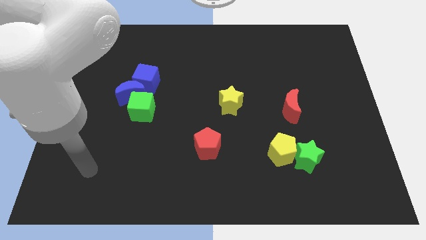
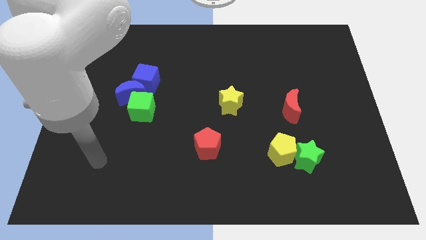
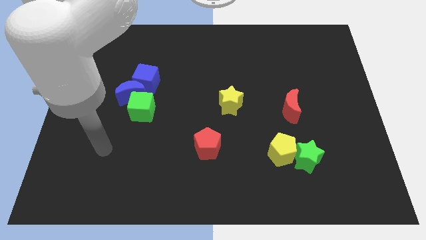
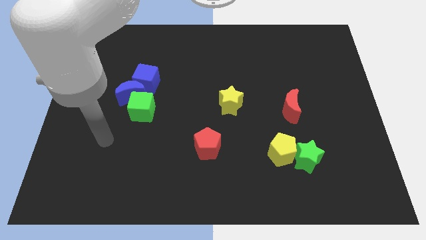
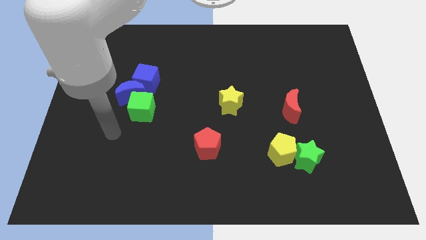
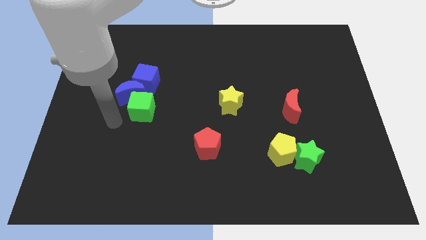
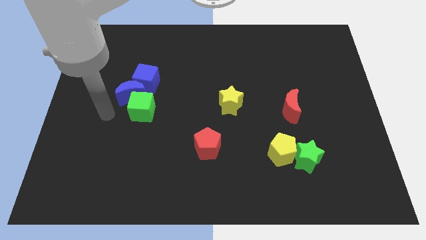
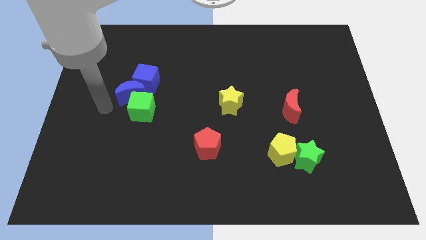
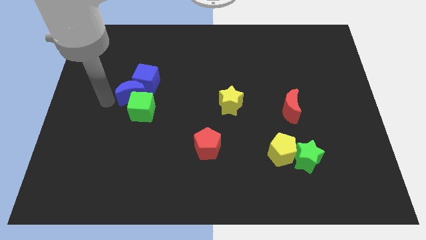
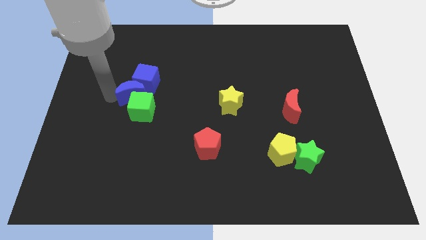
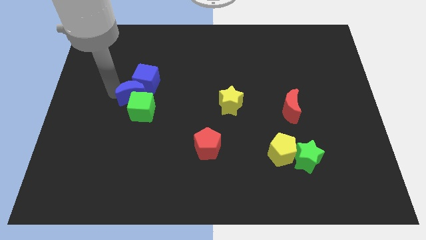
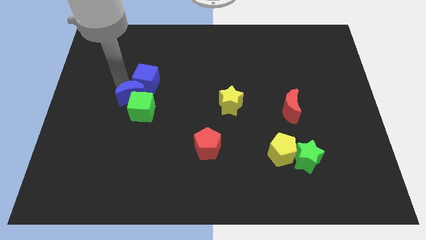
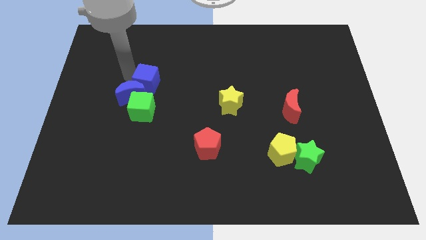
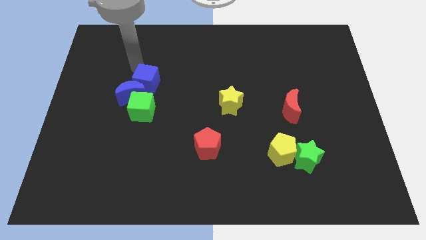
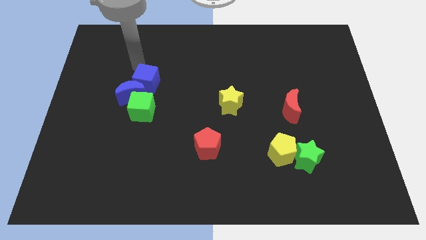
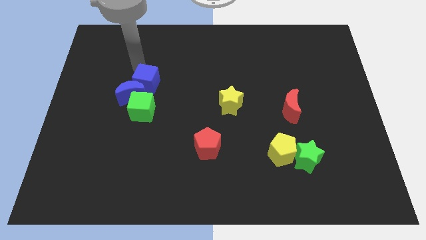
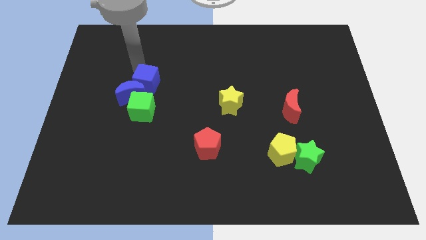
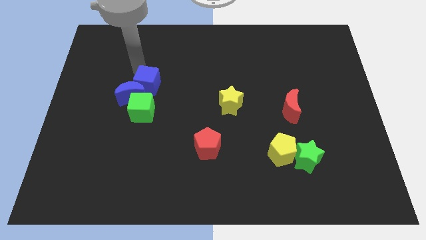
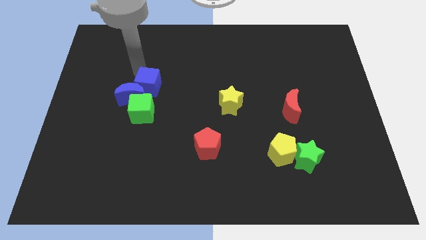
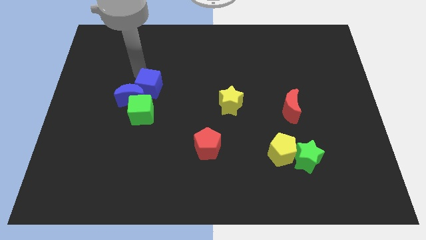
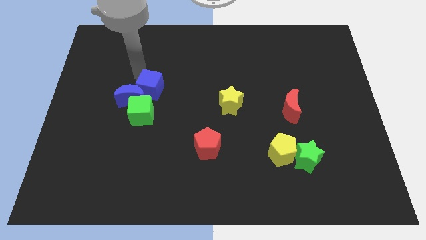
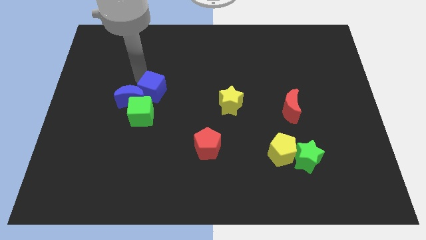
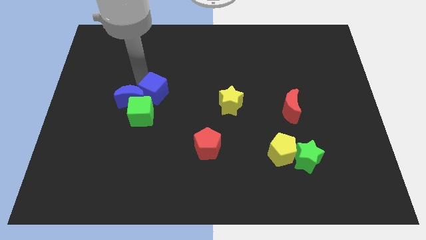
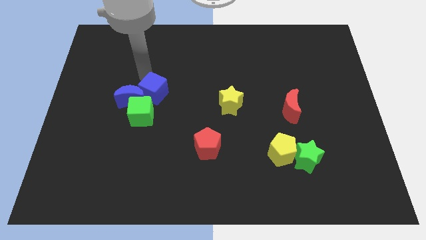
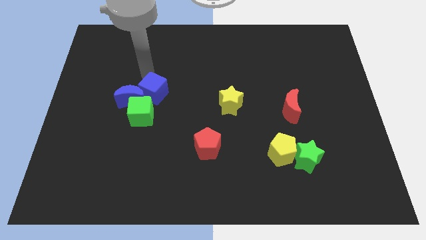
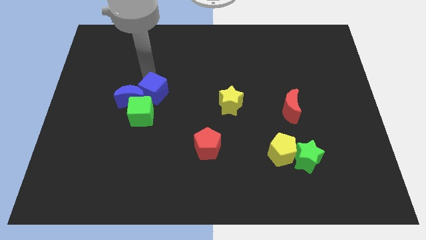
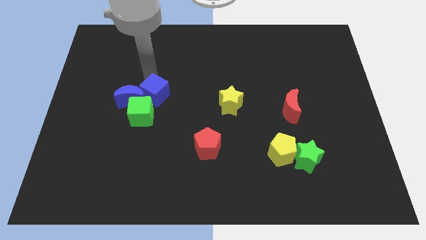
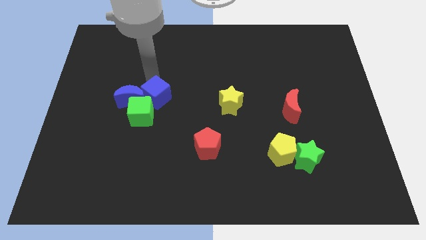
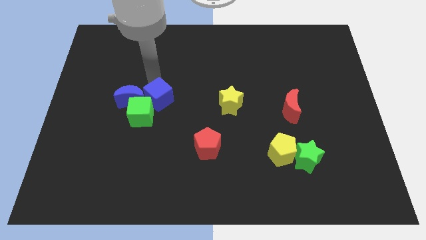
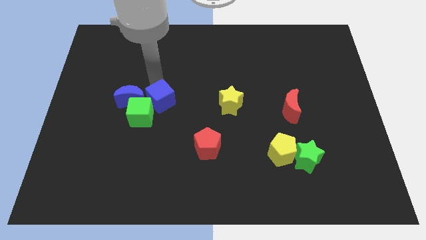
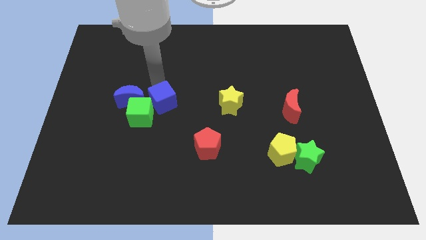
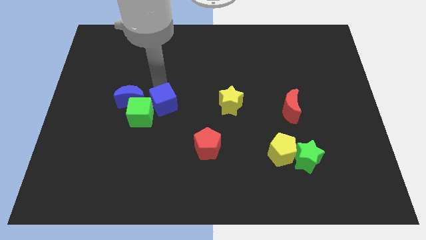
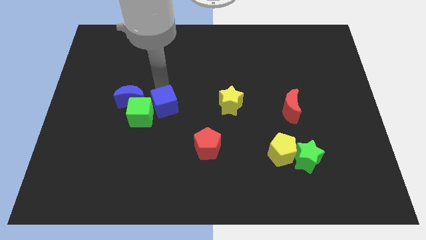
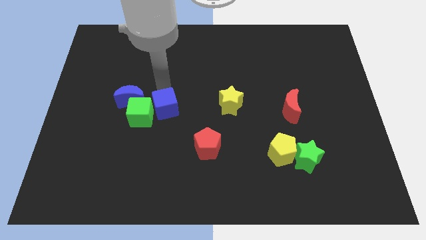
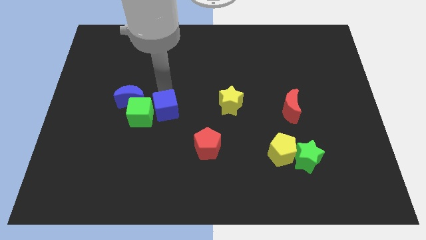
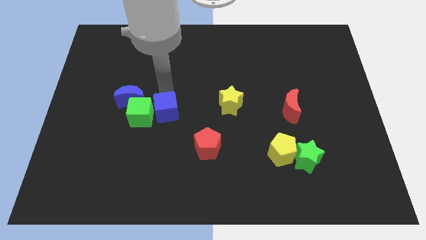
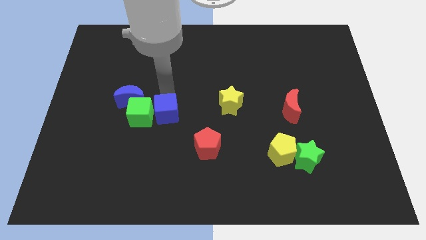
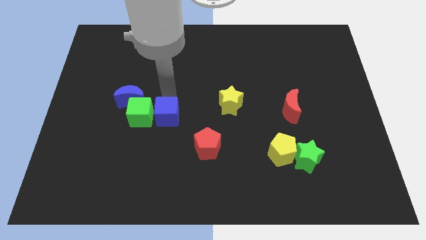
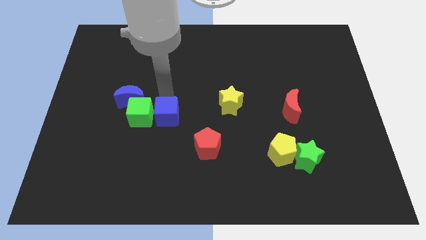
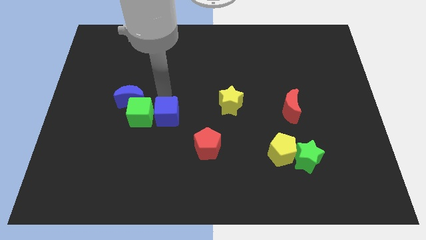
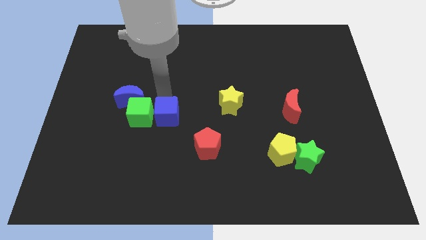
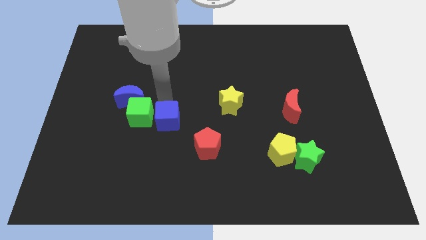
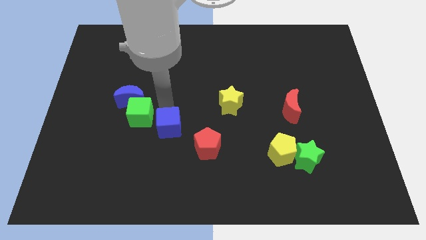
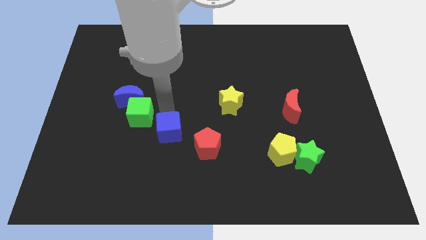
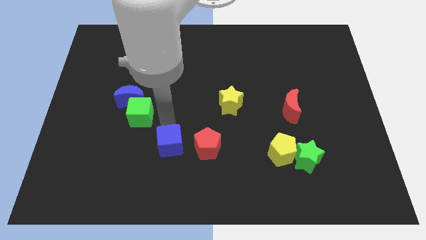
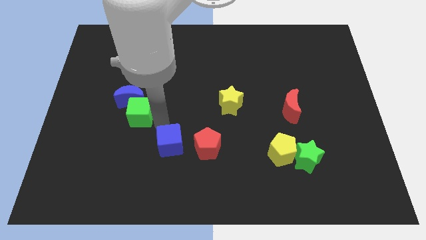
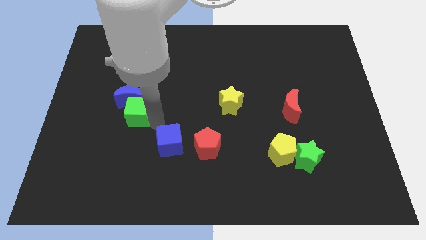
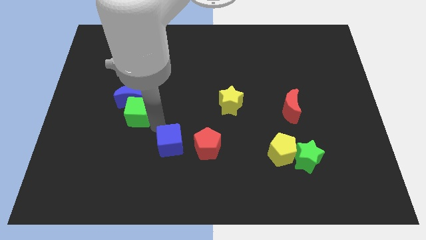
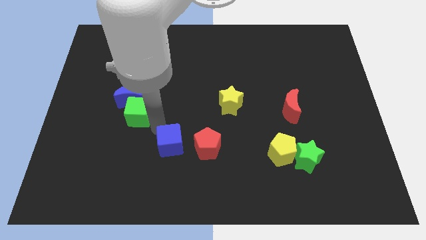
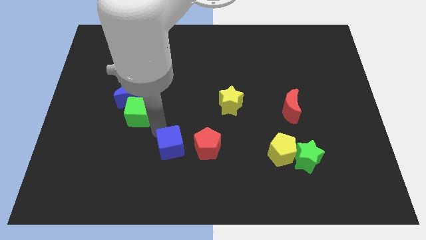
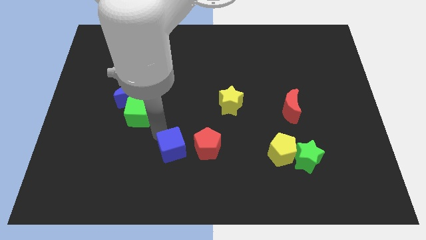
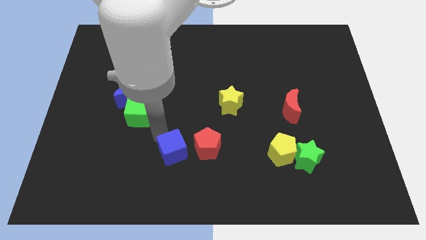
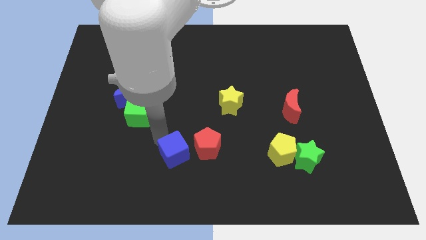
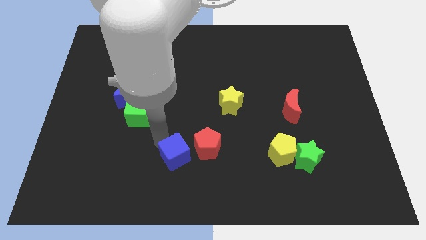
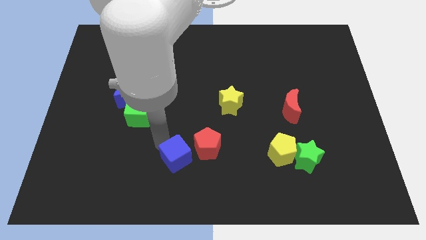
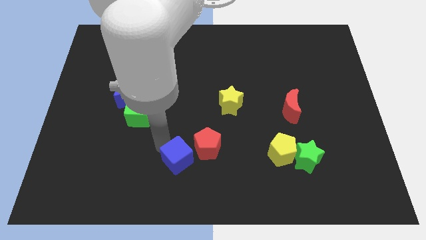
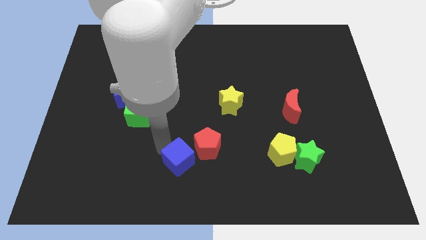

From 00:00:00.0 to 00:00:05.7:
push the blue cube to the bottom side

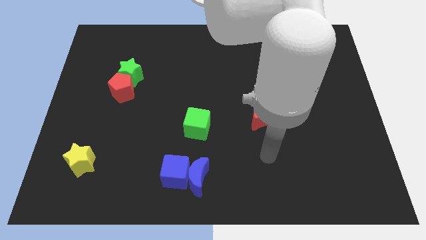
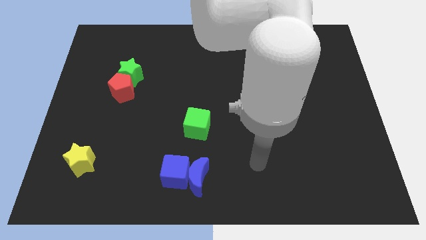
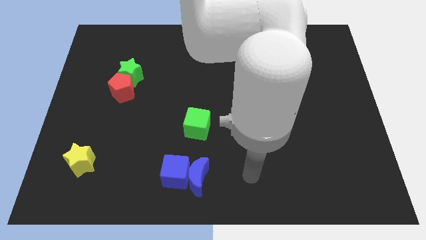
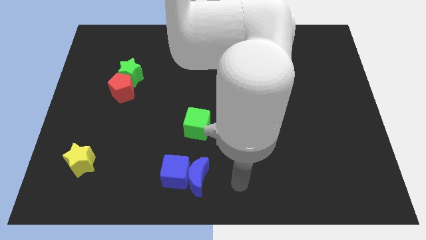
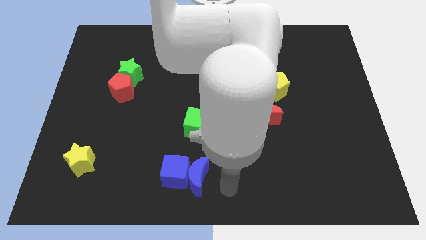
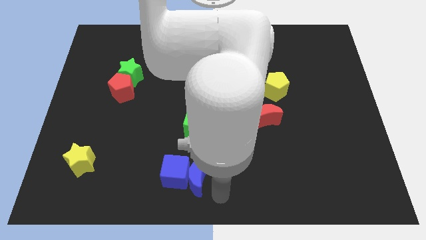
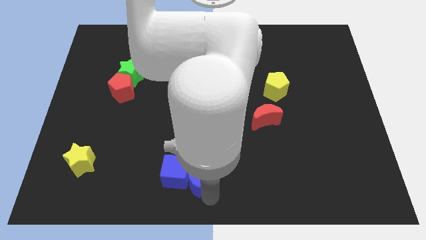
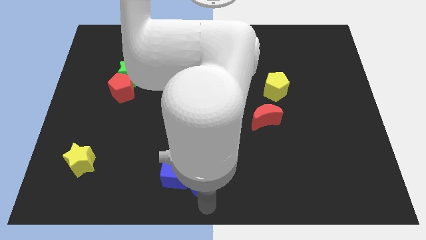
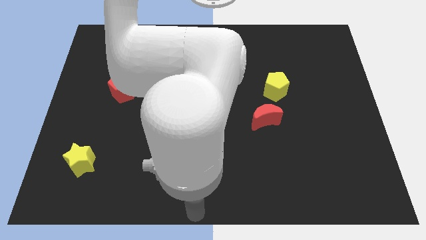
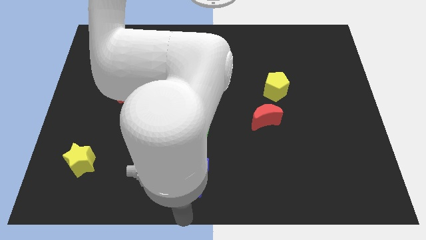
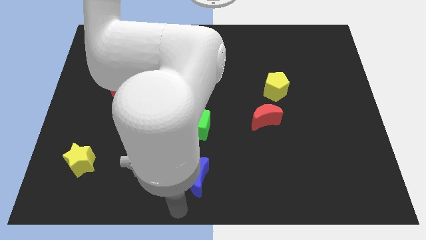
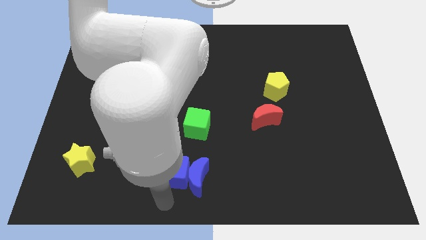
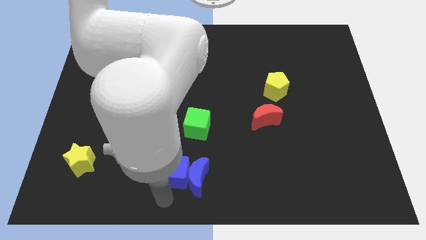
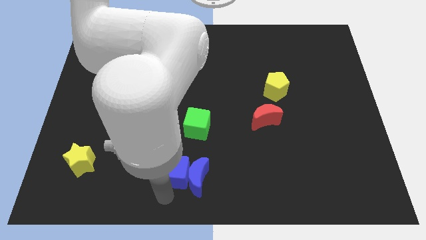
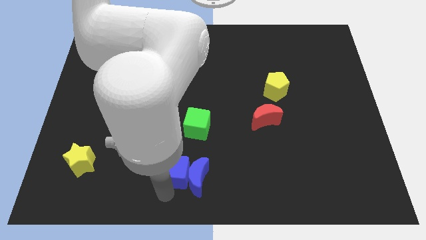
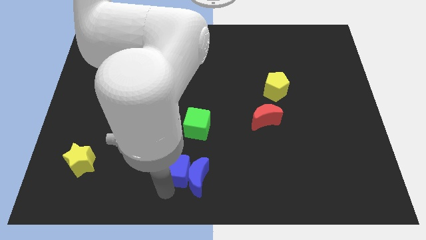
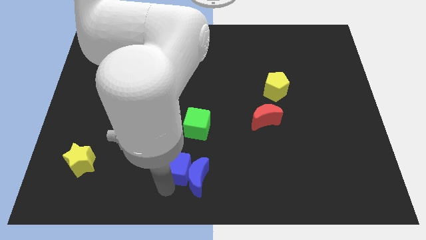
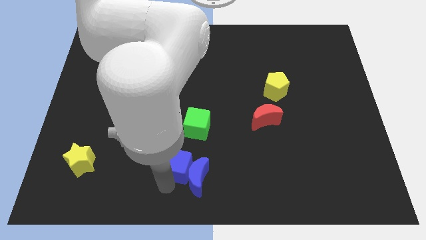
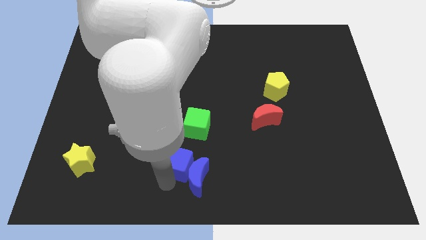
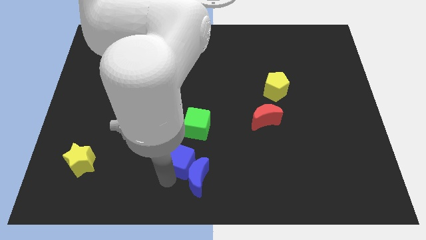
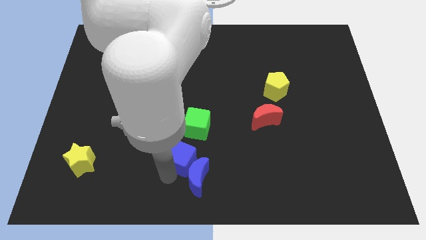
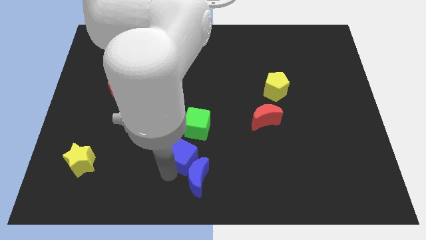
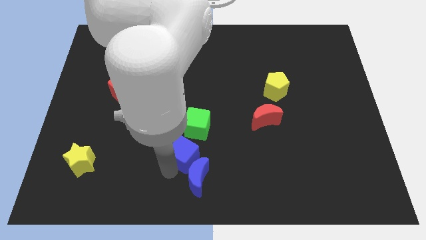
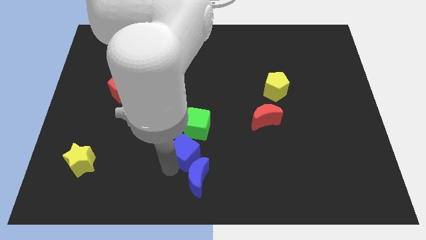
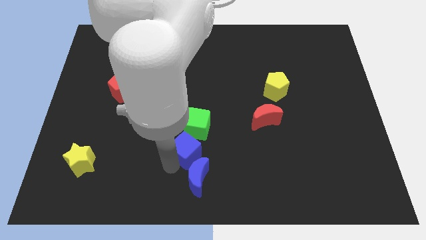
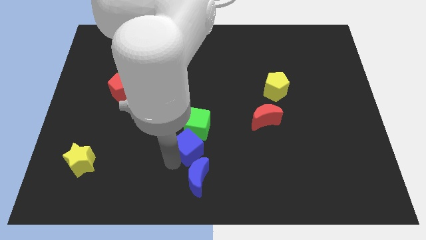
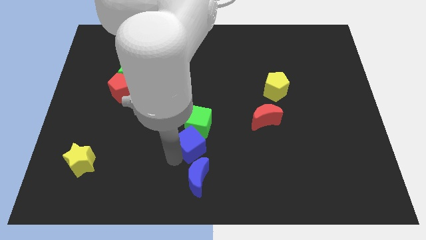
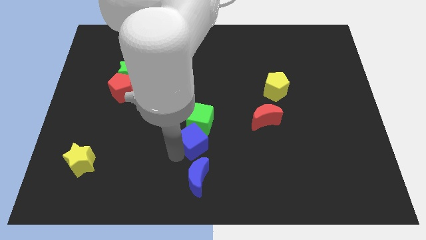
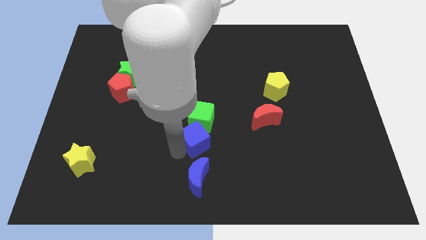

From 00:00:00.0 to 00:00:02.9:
put the blue cube to the middle
